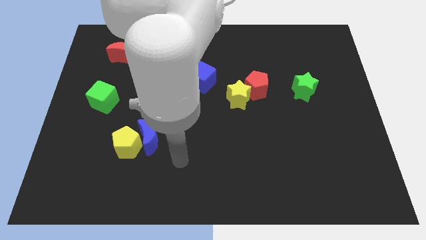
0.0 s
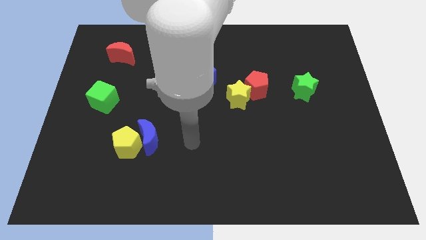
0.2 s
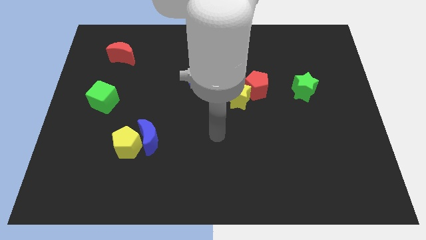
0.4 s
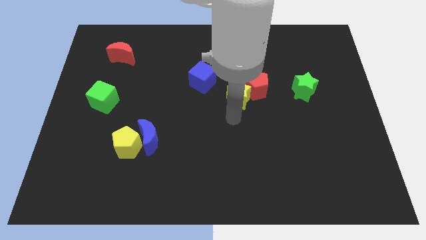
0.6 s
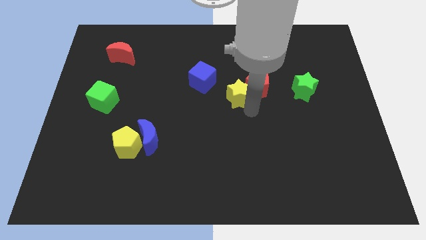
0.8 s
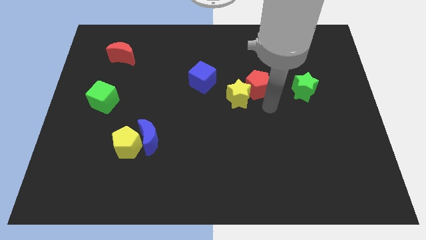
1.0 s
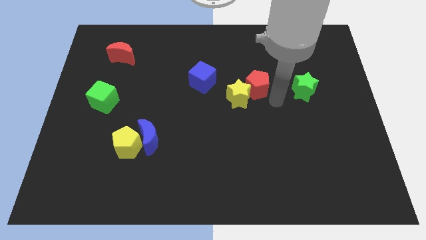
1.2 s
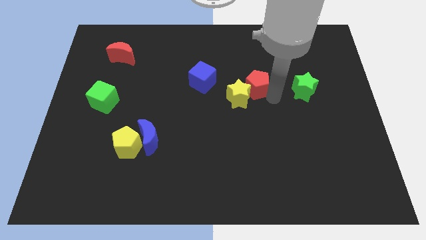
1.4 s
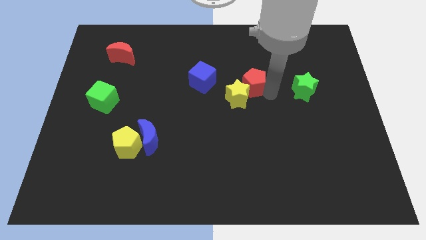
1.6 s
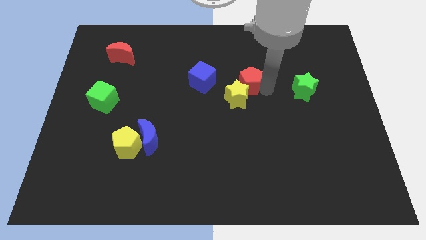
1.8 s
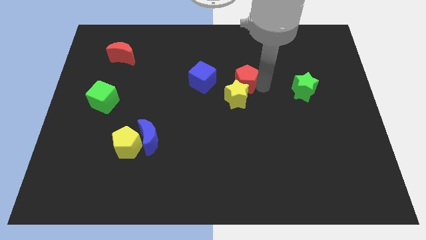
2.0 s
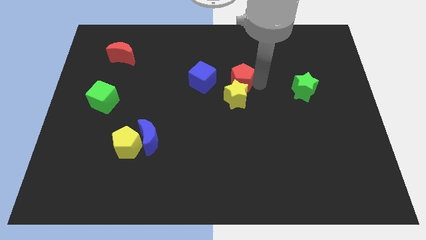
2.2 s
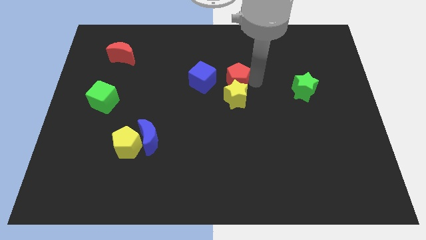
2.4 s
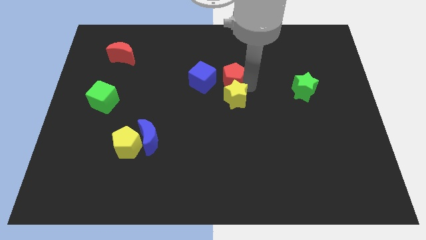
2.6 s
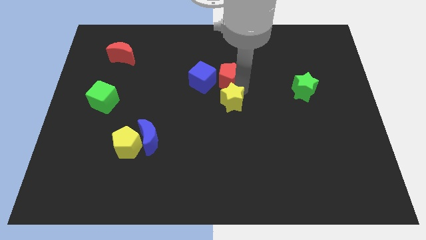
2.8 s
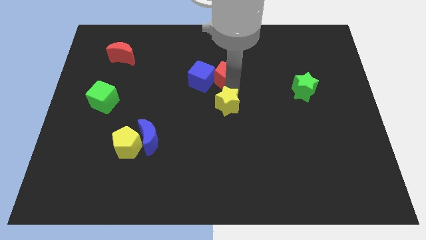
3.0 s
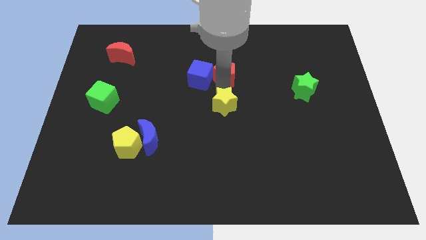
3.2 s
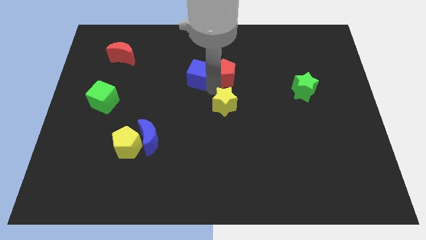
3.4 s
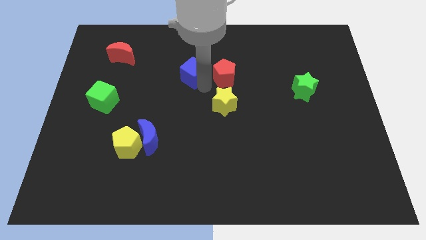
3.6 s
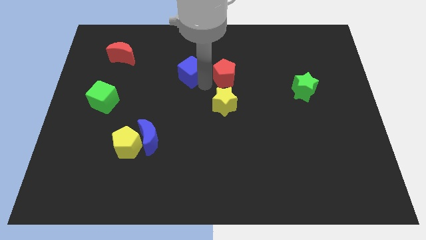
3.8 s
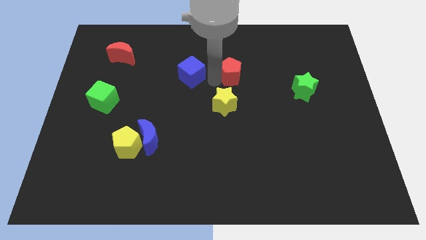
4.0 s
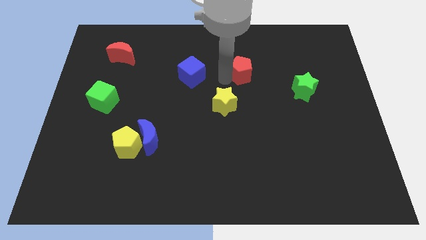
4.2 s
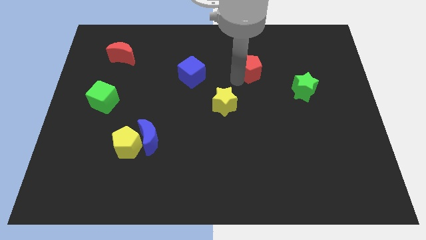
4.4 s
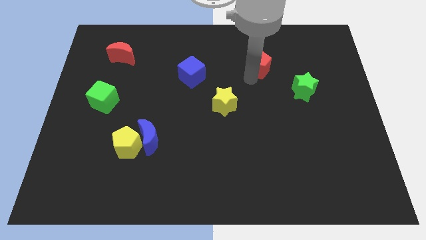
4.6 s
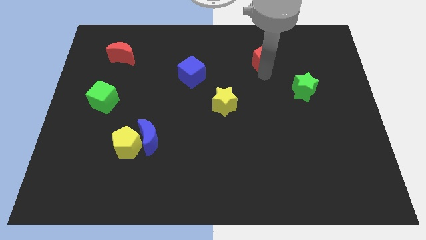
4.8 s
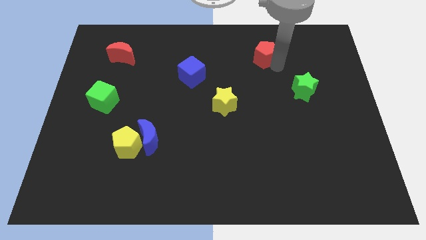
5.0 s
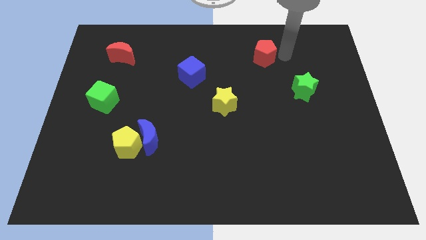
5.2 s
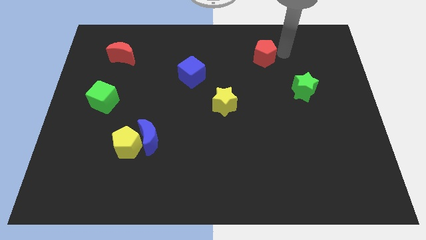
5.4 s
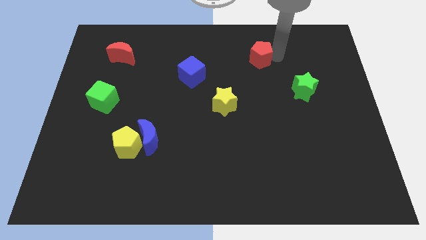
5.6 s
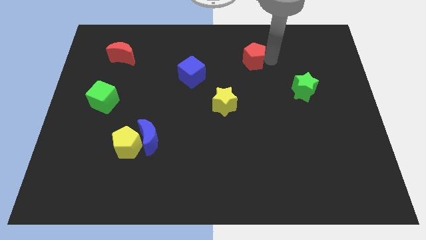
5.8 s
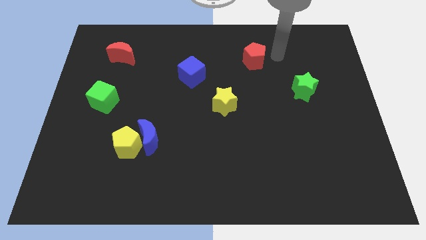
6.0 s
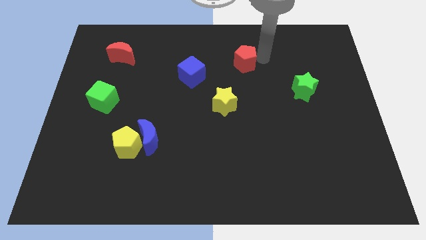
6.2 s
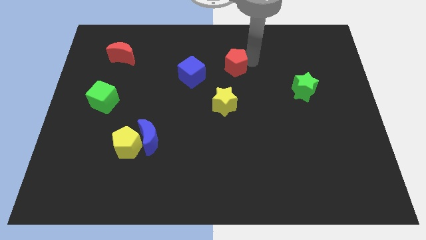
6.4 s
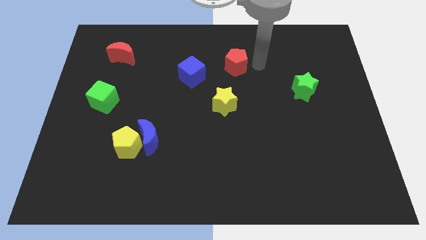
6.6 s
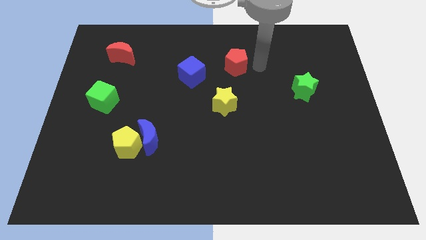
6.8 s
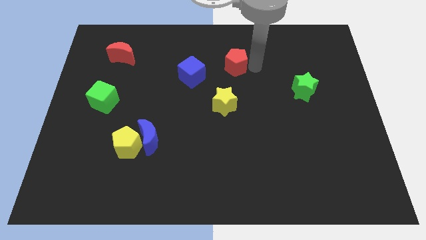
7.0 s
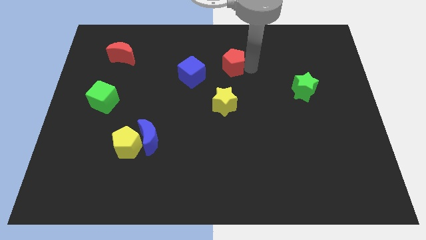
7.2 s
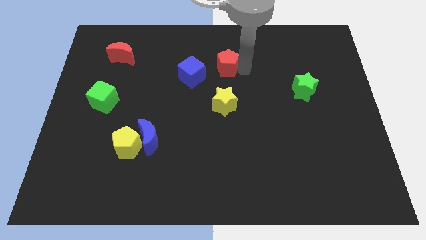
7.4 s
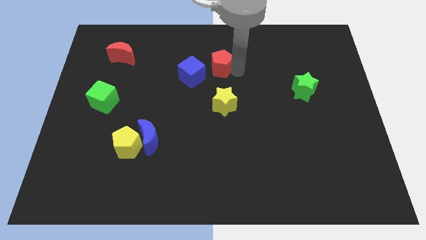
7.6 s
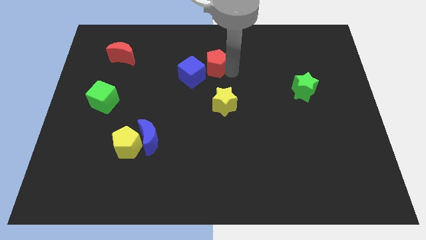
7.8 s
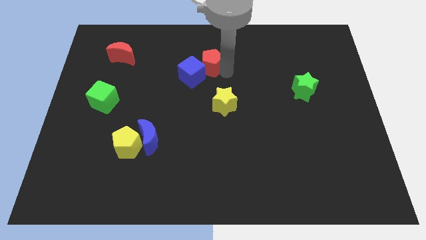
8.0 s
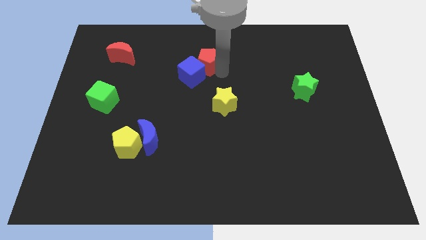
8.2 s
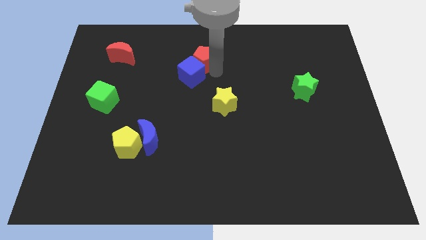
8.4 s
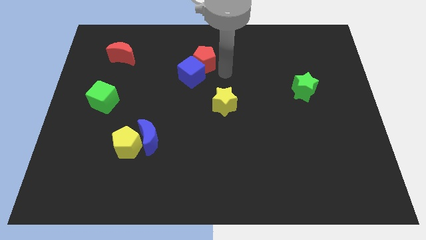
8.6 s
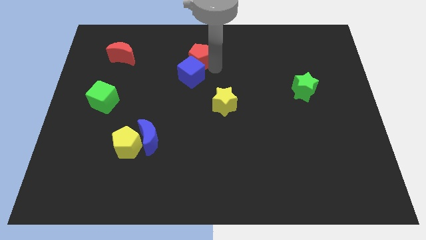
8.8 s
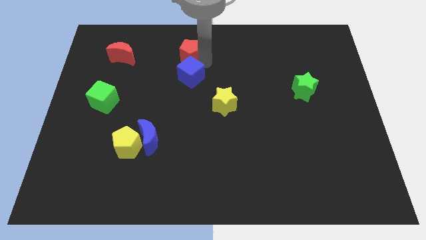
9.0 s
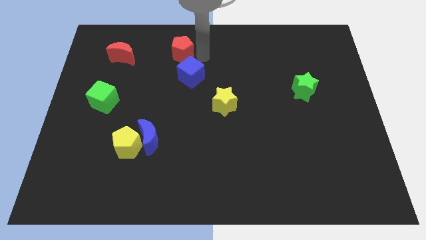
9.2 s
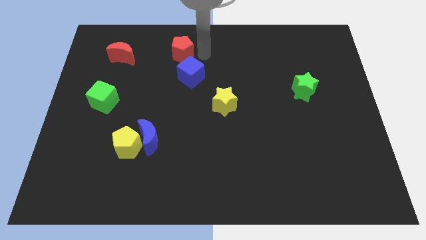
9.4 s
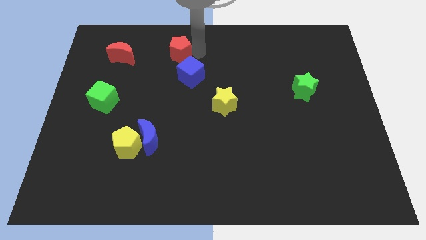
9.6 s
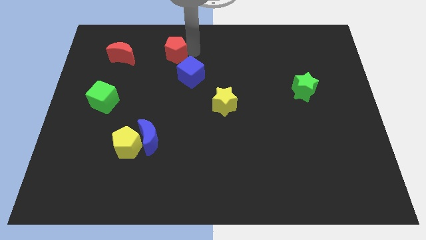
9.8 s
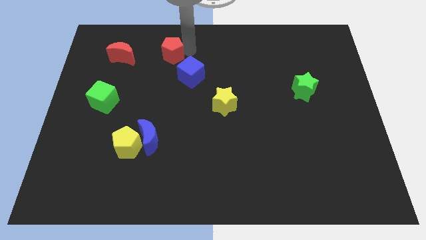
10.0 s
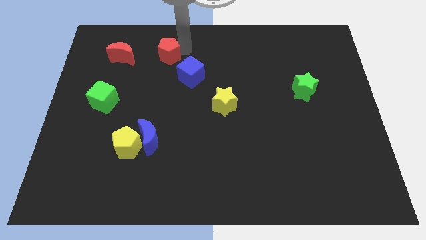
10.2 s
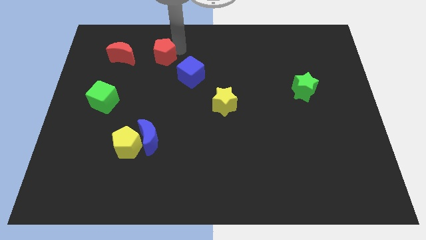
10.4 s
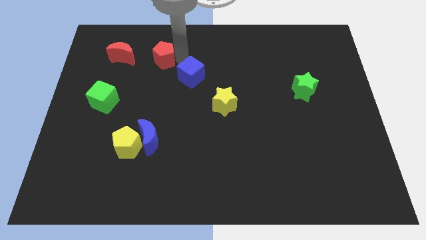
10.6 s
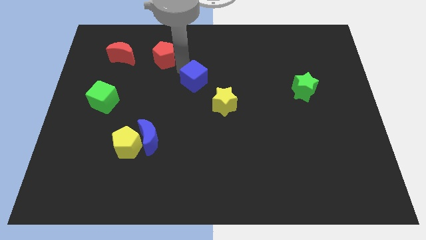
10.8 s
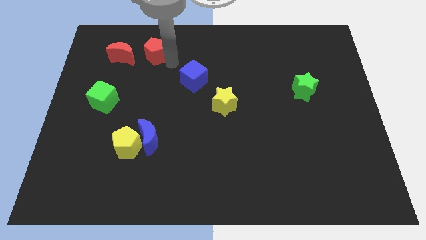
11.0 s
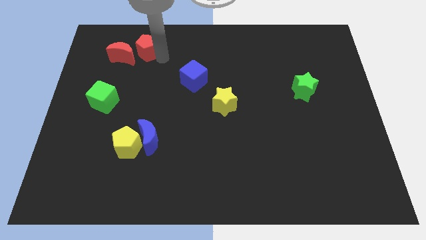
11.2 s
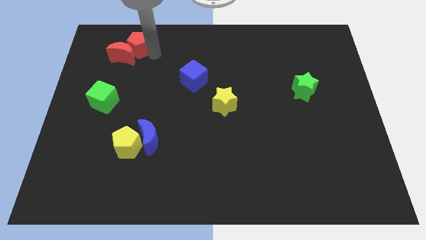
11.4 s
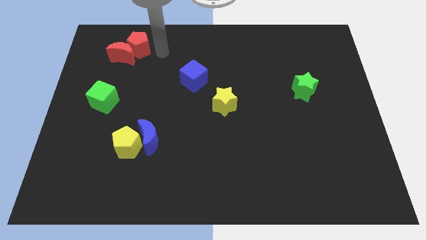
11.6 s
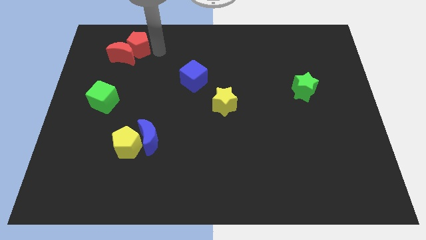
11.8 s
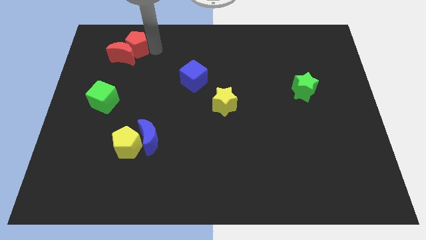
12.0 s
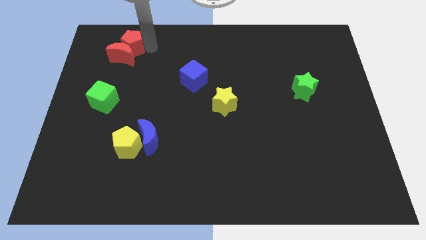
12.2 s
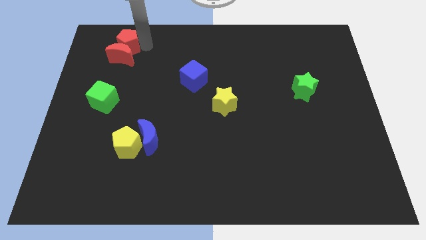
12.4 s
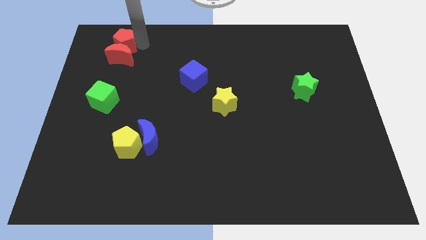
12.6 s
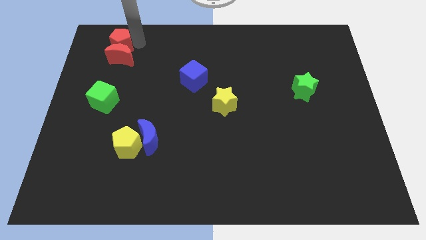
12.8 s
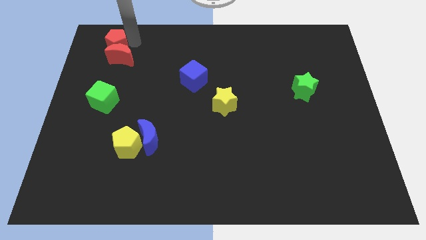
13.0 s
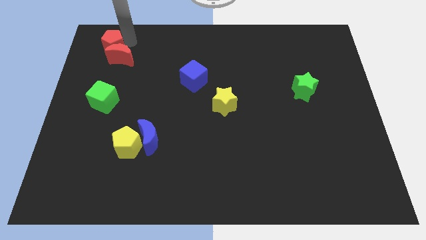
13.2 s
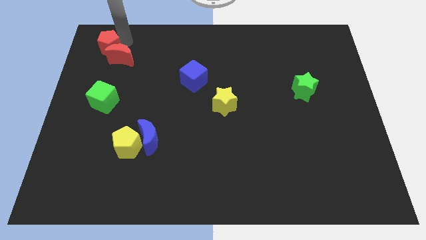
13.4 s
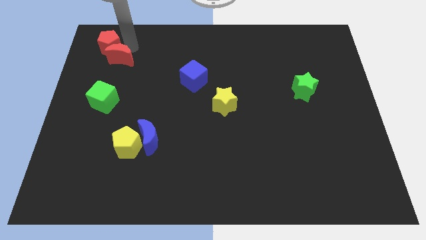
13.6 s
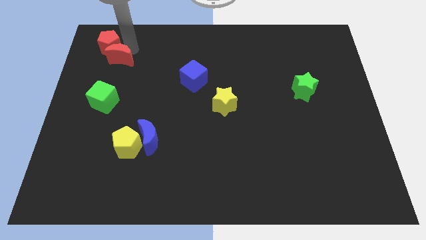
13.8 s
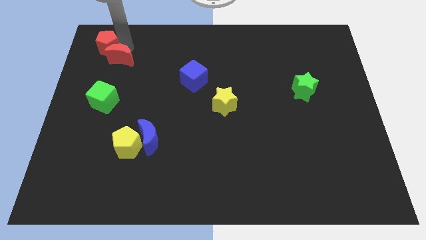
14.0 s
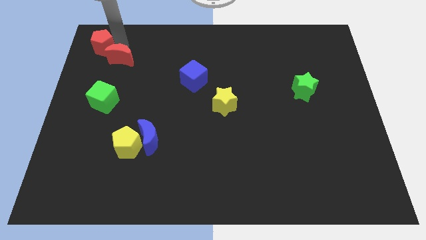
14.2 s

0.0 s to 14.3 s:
push the red pentagon to the upper left corner
